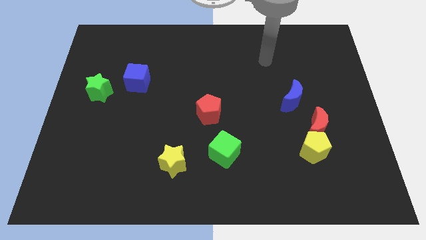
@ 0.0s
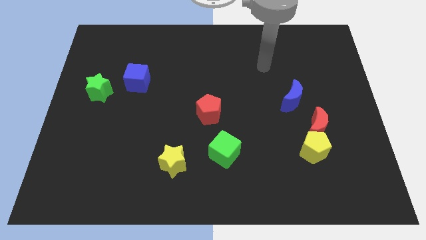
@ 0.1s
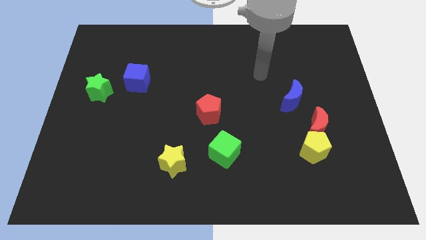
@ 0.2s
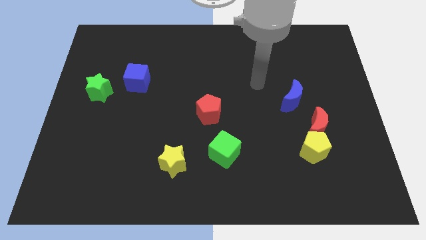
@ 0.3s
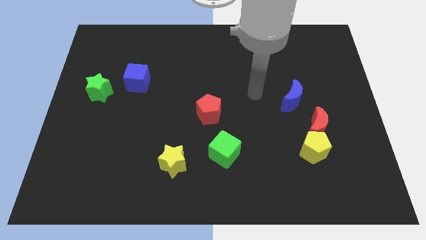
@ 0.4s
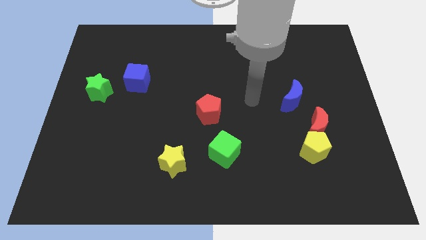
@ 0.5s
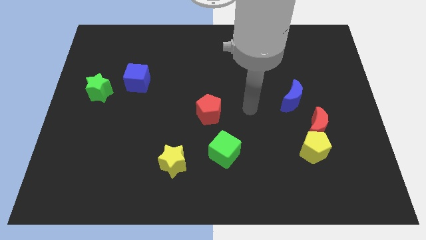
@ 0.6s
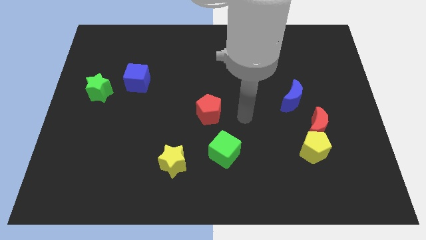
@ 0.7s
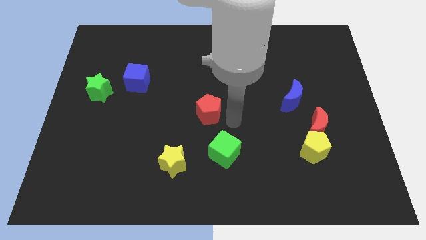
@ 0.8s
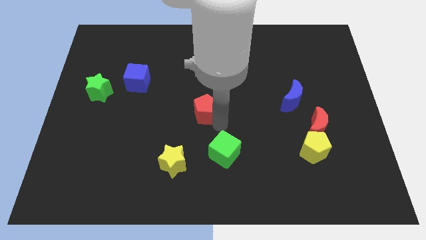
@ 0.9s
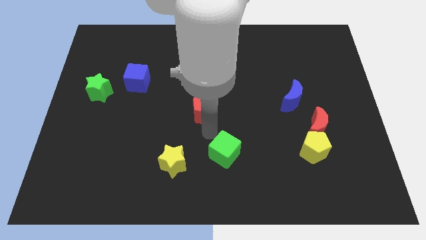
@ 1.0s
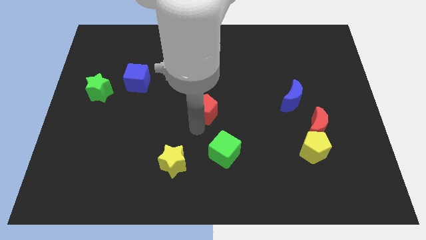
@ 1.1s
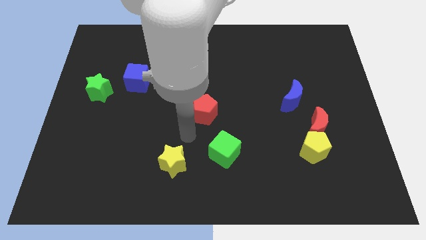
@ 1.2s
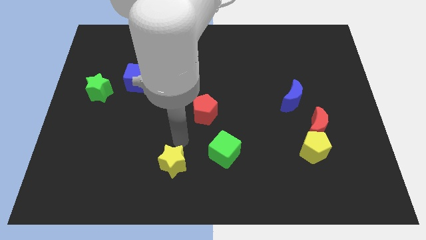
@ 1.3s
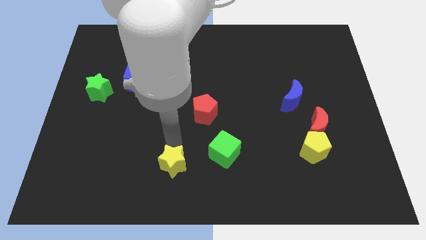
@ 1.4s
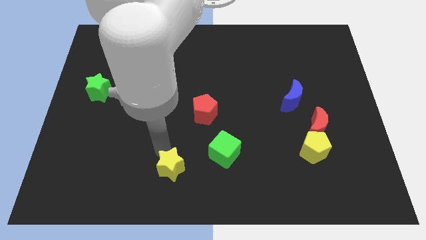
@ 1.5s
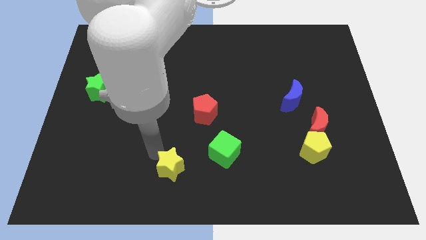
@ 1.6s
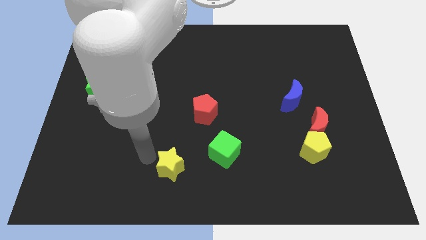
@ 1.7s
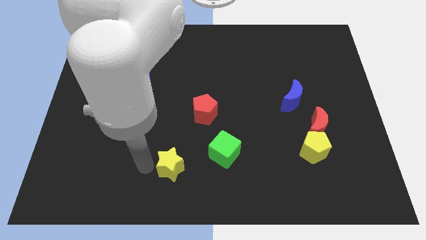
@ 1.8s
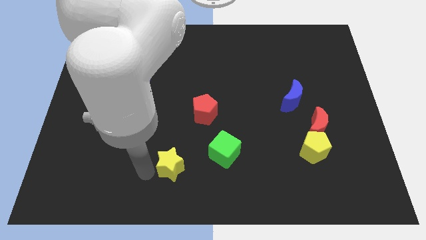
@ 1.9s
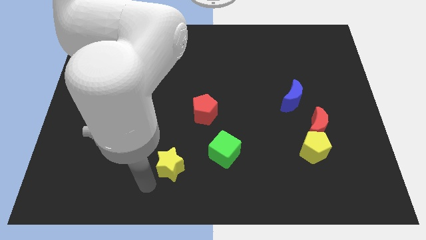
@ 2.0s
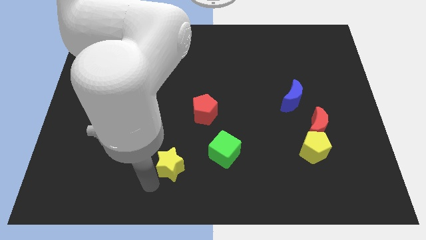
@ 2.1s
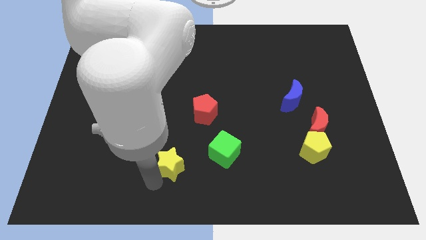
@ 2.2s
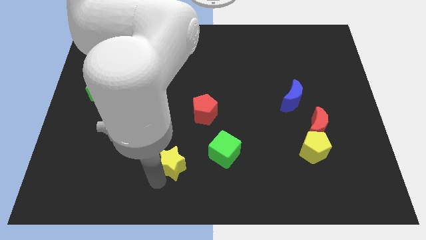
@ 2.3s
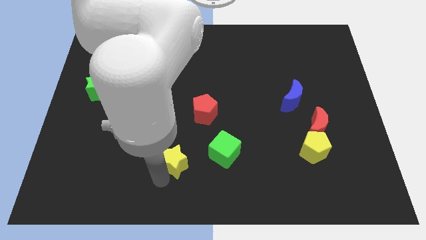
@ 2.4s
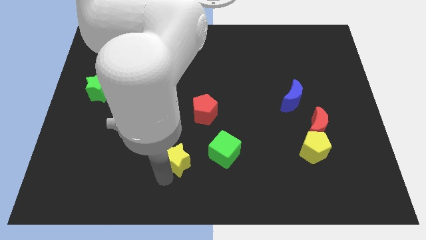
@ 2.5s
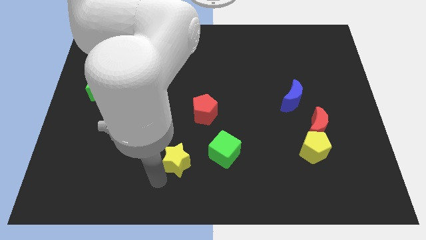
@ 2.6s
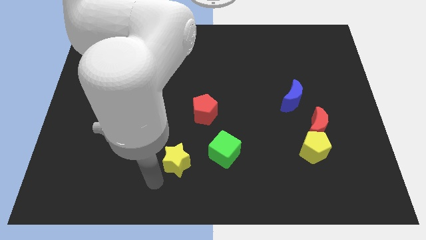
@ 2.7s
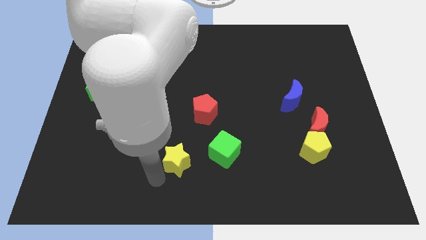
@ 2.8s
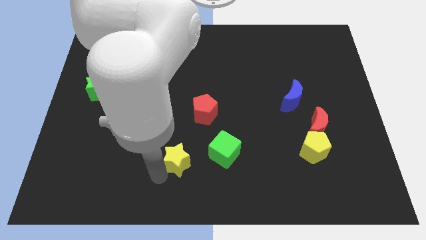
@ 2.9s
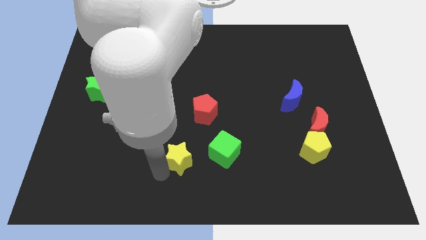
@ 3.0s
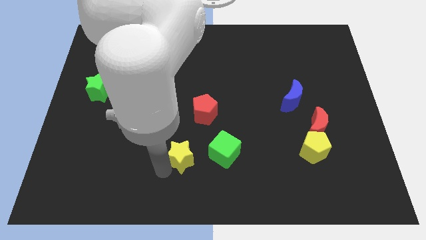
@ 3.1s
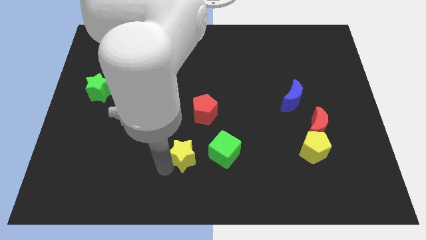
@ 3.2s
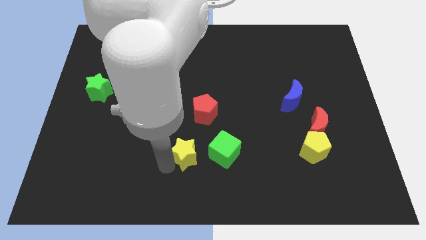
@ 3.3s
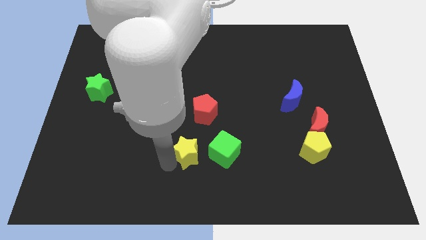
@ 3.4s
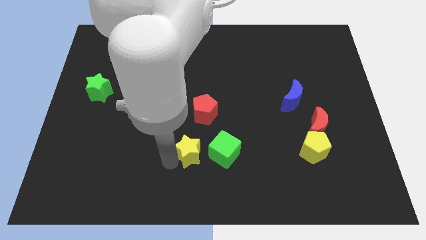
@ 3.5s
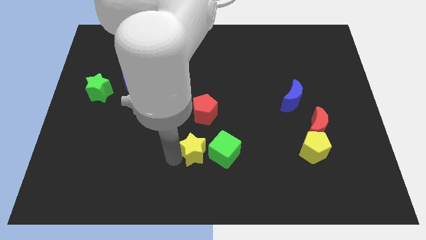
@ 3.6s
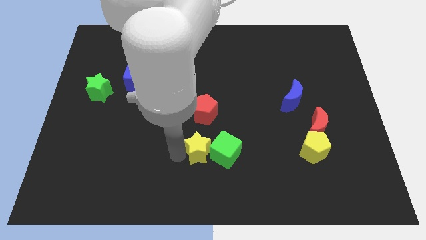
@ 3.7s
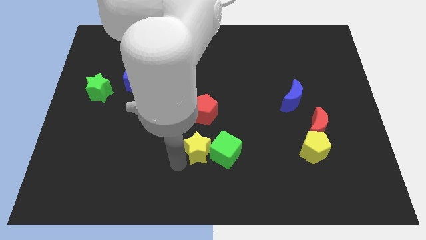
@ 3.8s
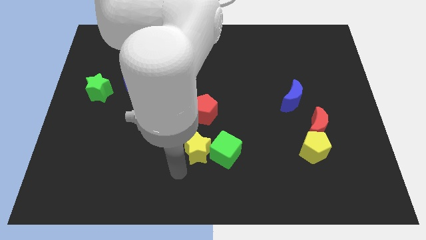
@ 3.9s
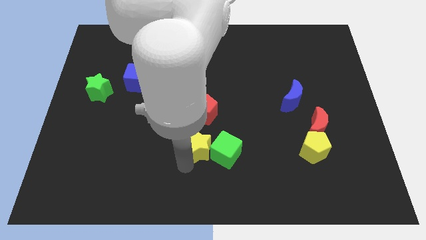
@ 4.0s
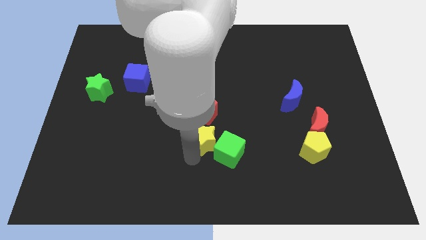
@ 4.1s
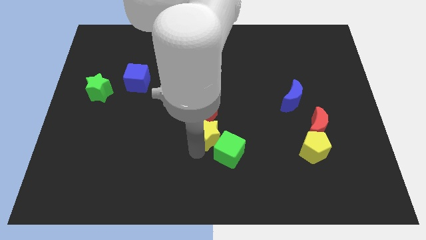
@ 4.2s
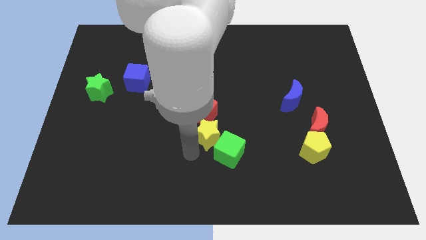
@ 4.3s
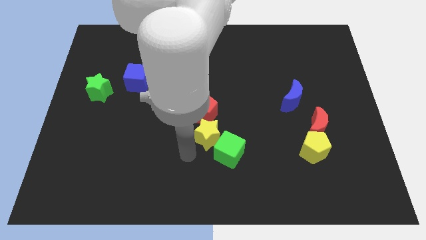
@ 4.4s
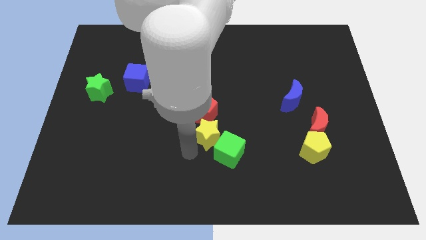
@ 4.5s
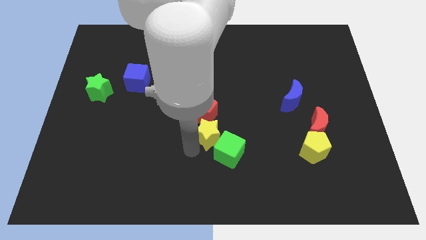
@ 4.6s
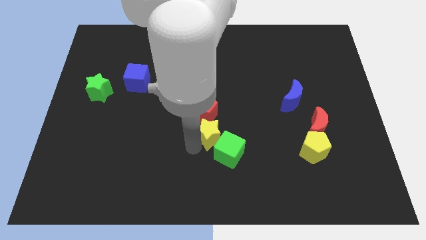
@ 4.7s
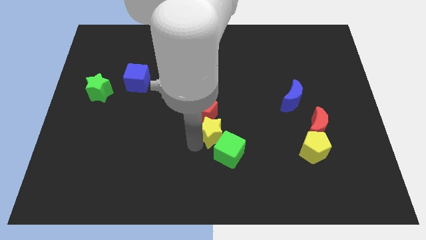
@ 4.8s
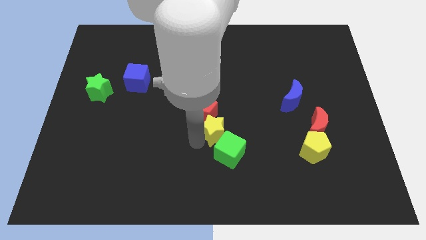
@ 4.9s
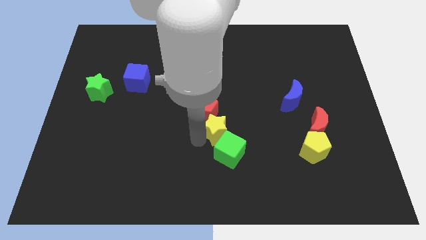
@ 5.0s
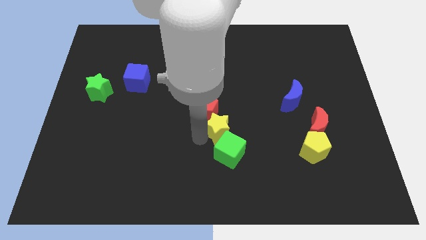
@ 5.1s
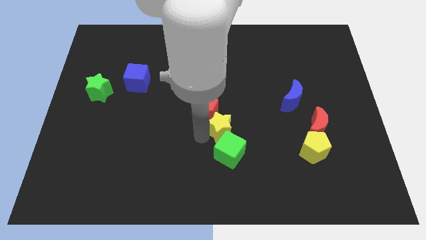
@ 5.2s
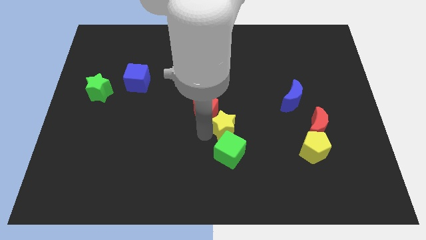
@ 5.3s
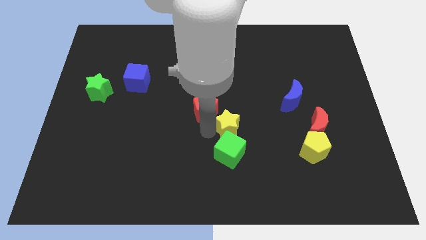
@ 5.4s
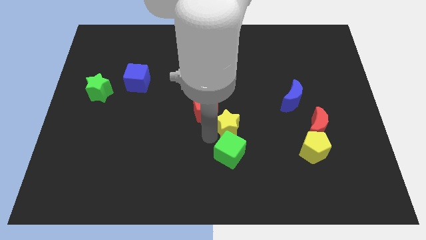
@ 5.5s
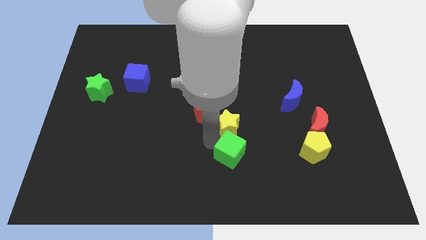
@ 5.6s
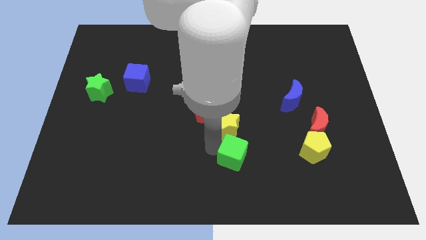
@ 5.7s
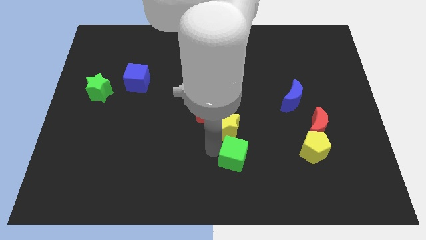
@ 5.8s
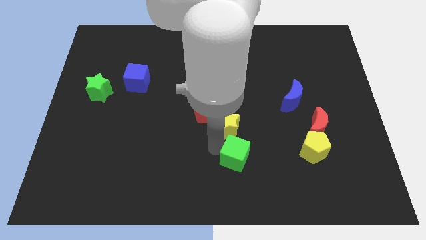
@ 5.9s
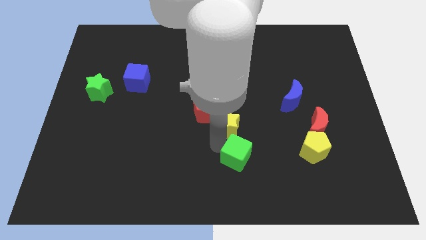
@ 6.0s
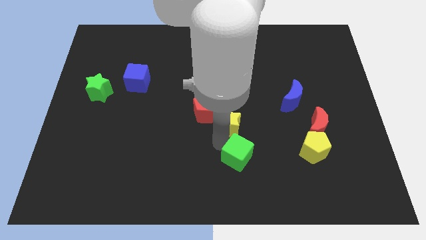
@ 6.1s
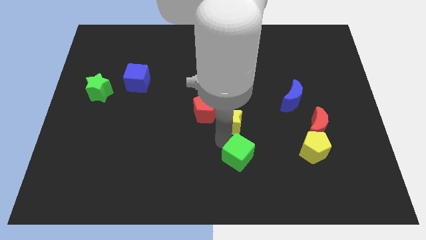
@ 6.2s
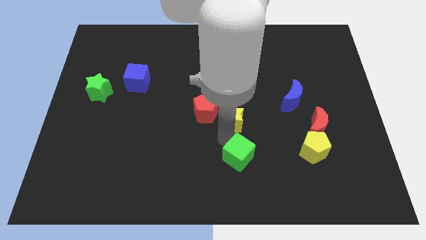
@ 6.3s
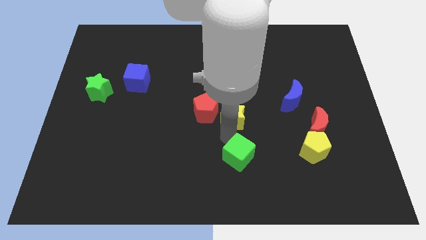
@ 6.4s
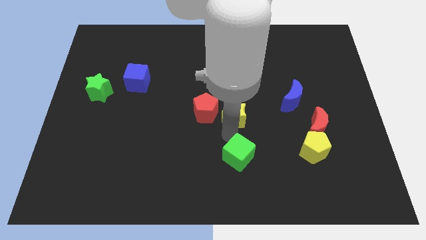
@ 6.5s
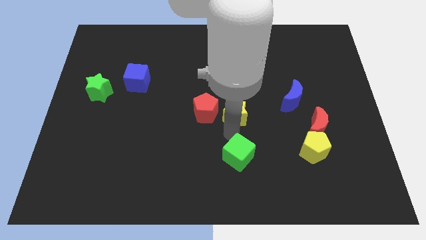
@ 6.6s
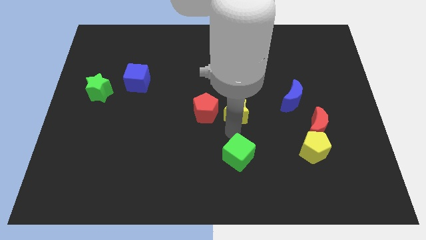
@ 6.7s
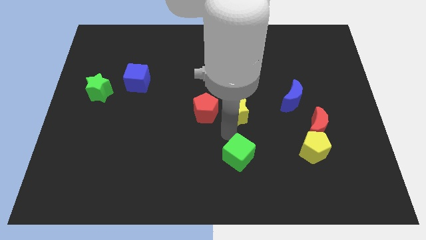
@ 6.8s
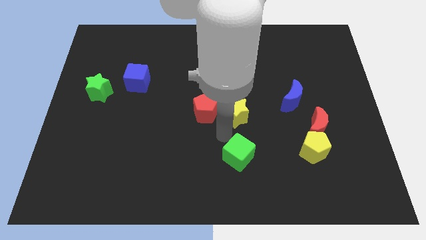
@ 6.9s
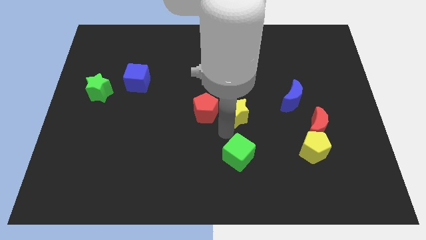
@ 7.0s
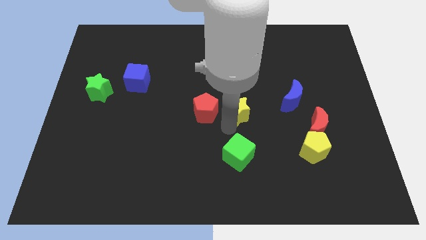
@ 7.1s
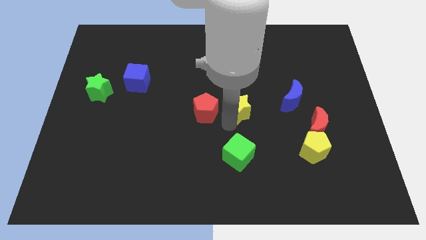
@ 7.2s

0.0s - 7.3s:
move the yellow star diagonally upwards and to the right

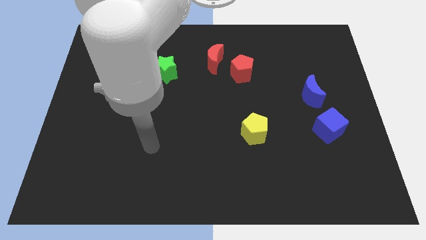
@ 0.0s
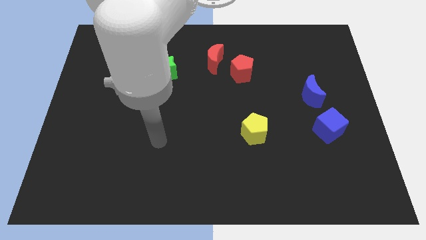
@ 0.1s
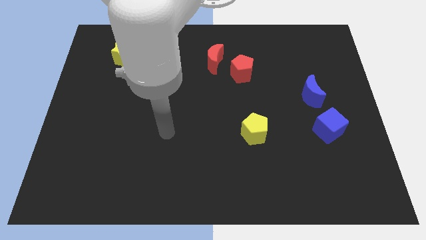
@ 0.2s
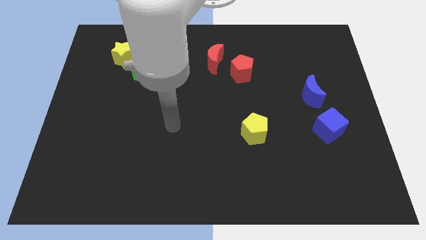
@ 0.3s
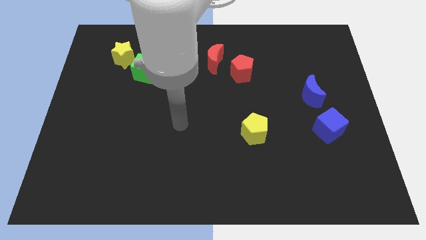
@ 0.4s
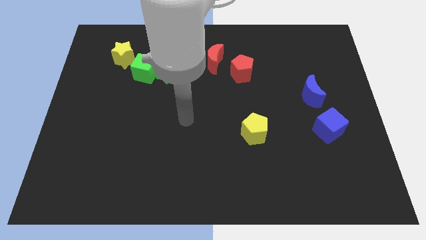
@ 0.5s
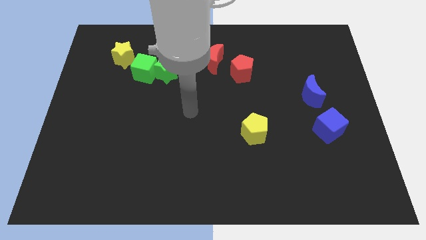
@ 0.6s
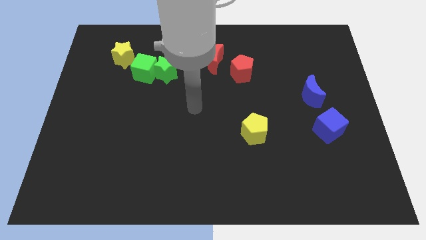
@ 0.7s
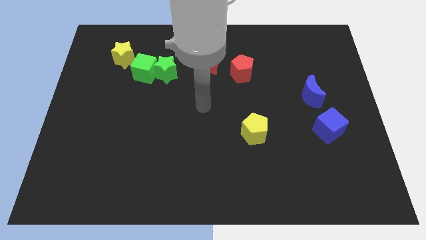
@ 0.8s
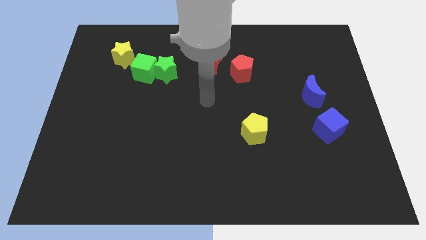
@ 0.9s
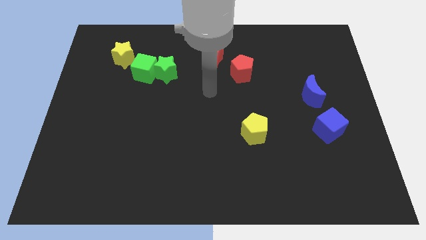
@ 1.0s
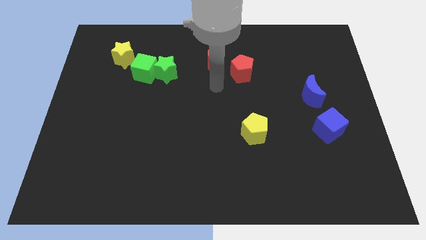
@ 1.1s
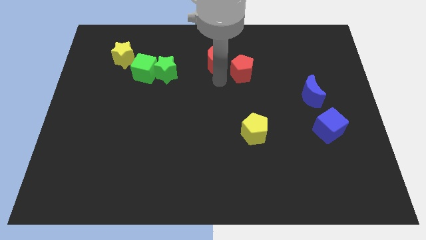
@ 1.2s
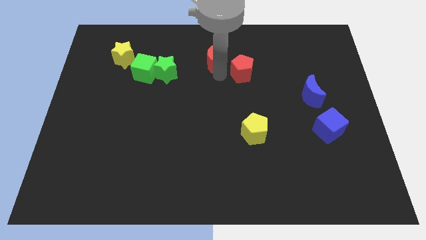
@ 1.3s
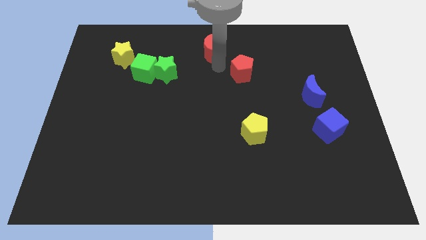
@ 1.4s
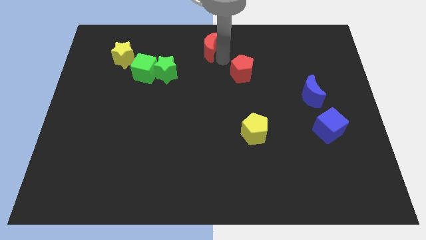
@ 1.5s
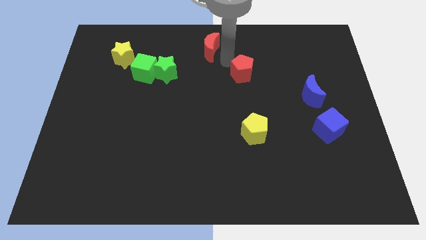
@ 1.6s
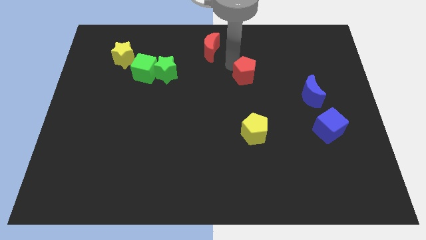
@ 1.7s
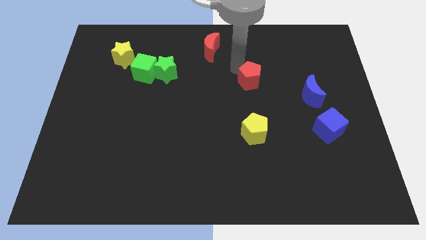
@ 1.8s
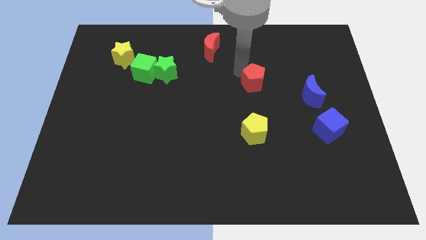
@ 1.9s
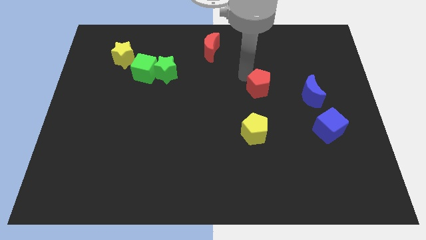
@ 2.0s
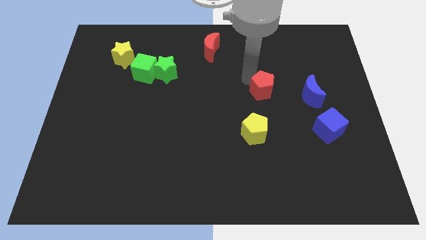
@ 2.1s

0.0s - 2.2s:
move the red pentagon diagonally downwards and right somewhat
